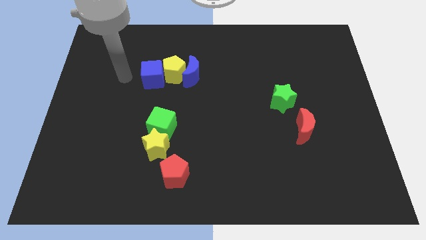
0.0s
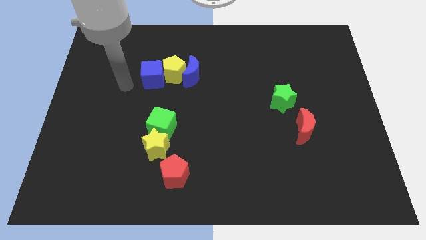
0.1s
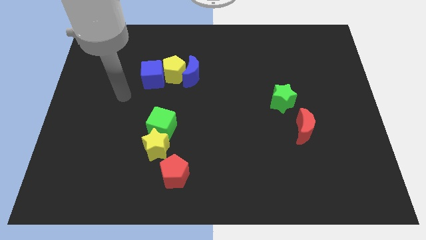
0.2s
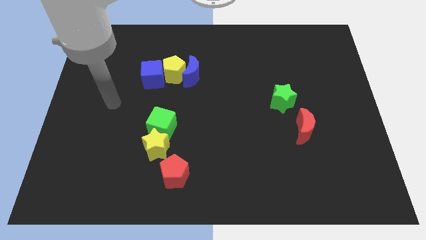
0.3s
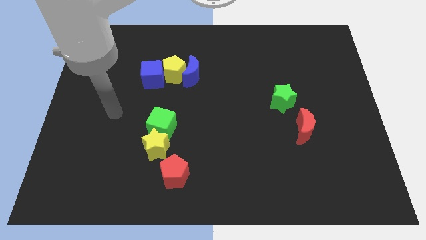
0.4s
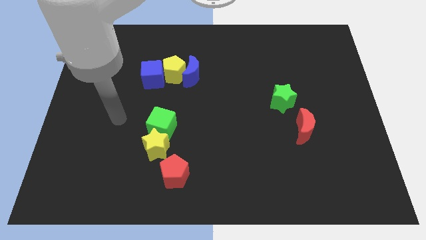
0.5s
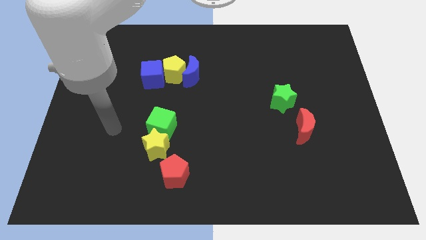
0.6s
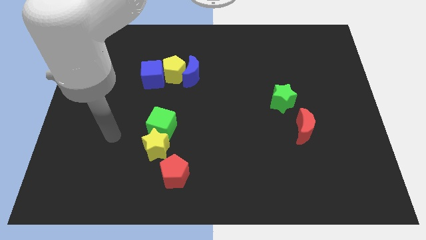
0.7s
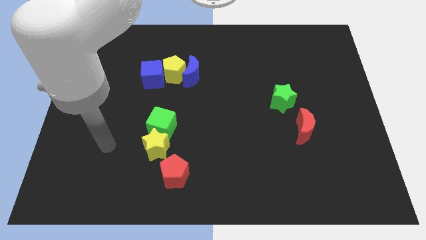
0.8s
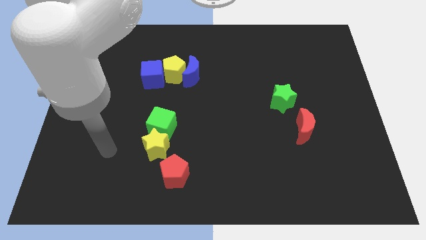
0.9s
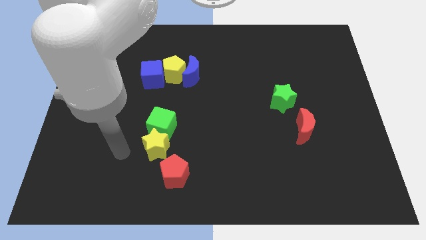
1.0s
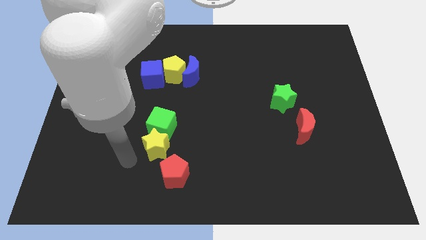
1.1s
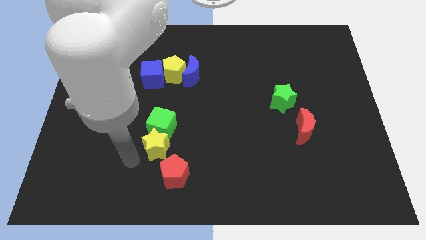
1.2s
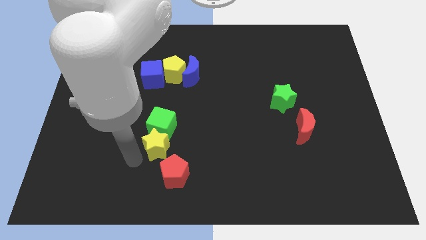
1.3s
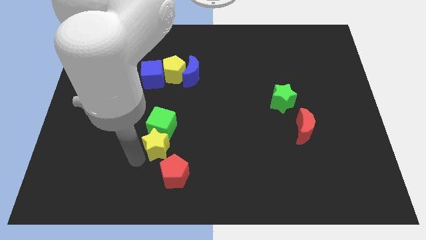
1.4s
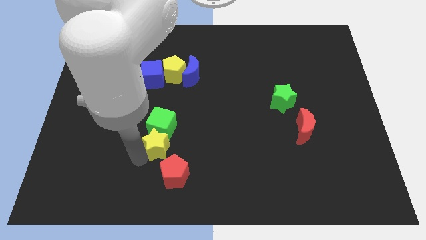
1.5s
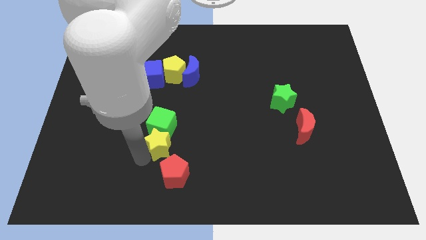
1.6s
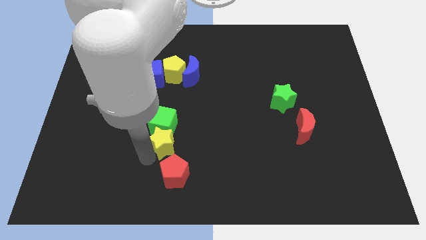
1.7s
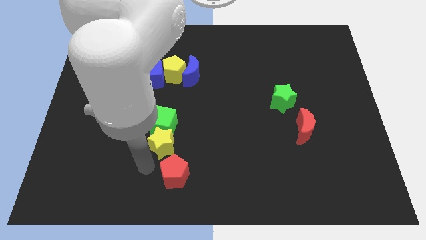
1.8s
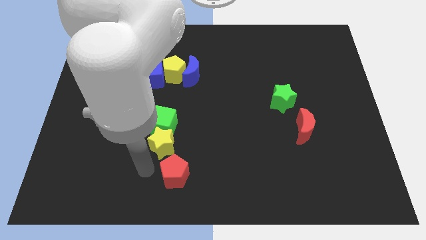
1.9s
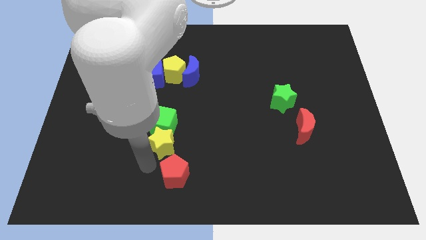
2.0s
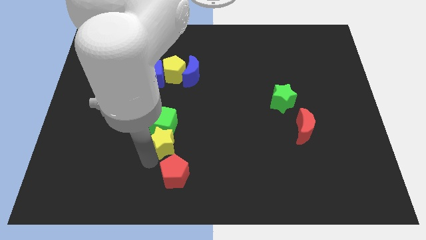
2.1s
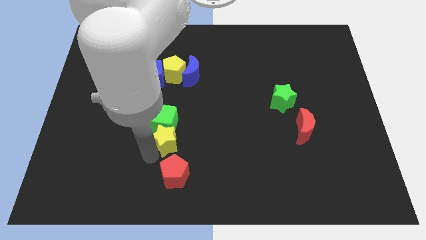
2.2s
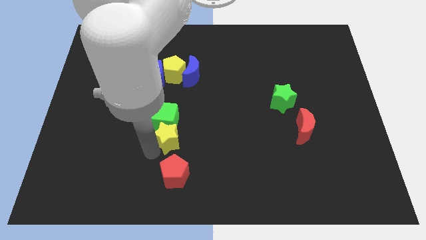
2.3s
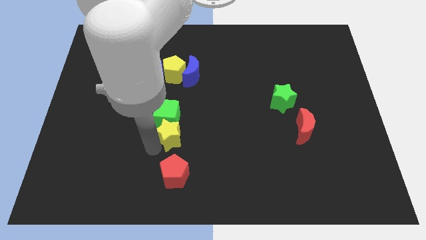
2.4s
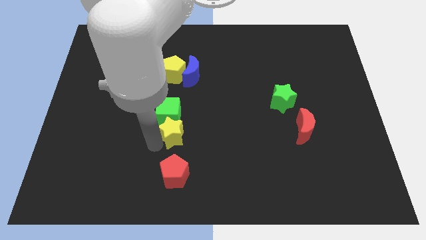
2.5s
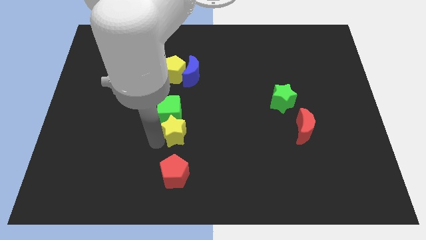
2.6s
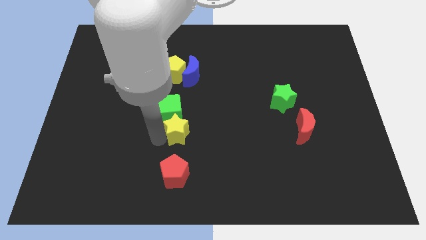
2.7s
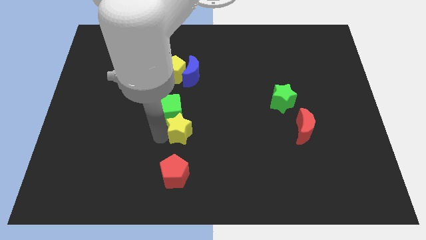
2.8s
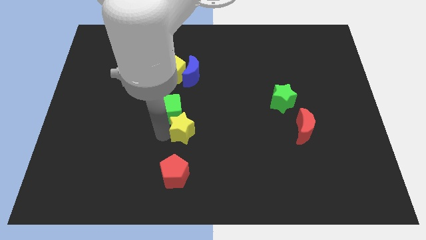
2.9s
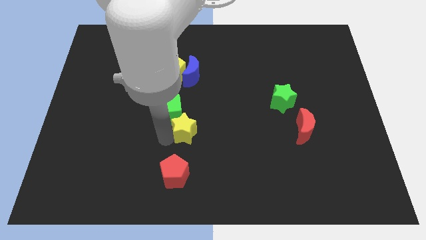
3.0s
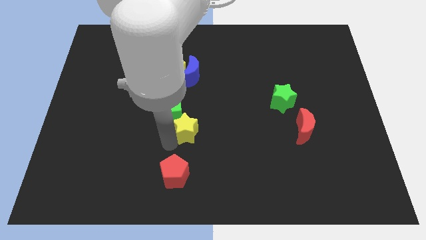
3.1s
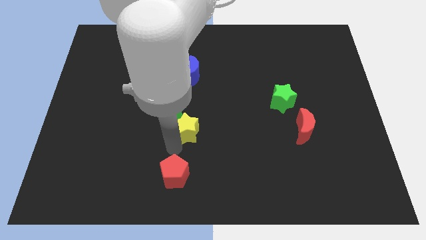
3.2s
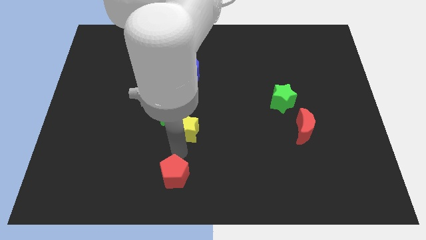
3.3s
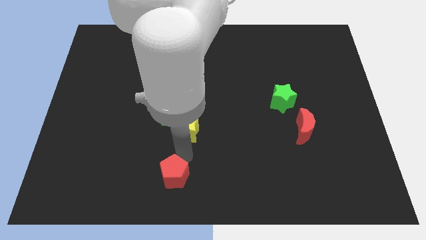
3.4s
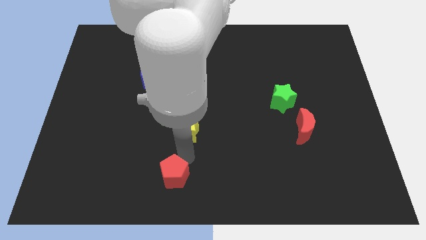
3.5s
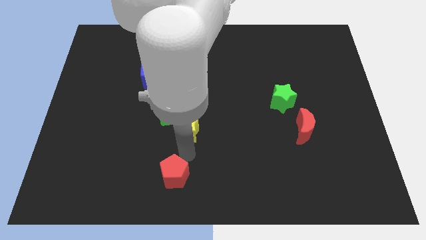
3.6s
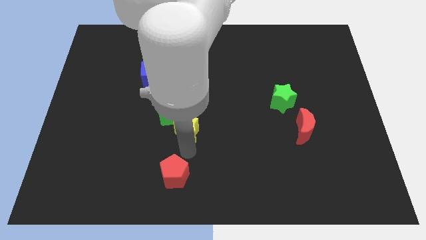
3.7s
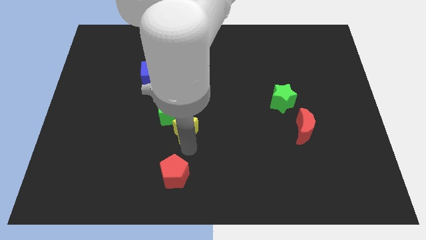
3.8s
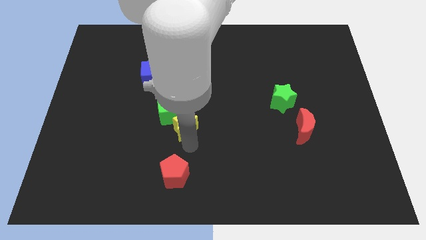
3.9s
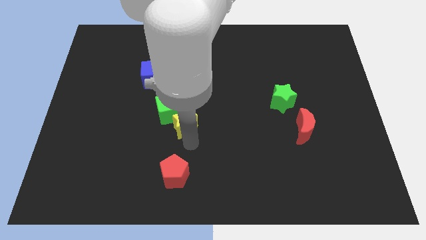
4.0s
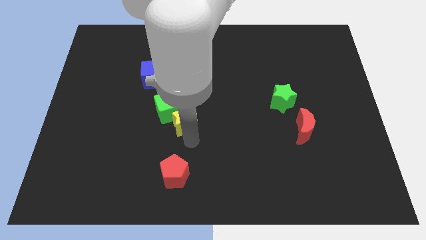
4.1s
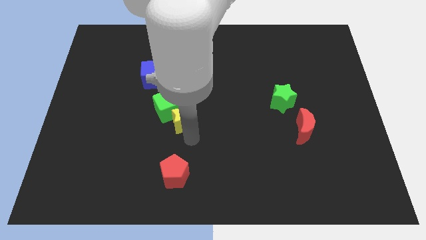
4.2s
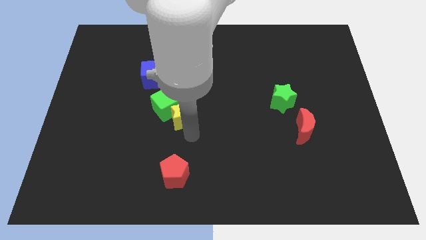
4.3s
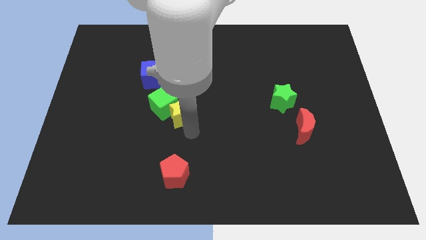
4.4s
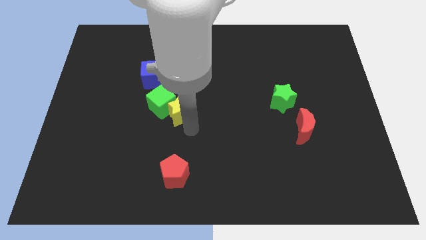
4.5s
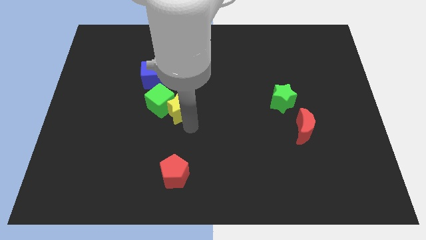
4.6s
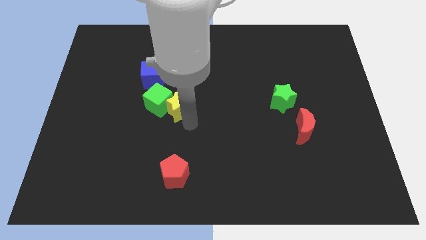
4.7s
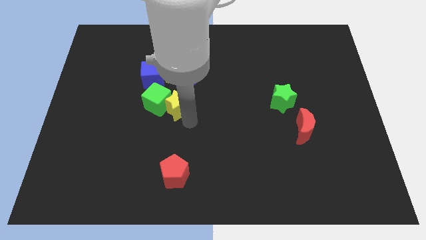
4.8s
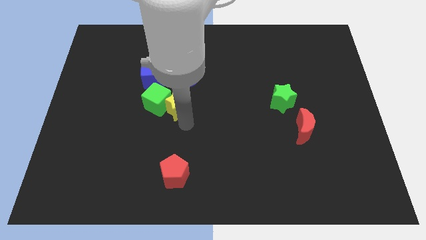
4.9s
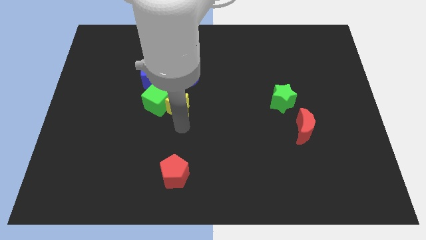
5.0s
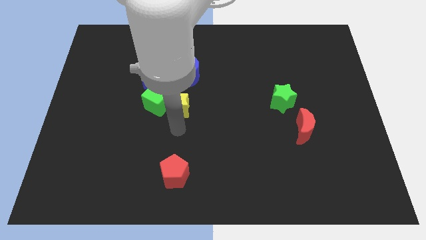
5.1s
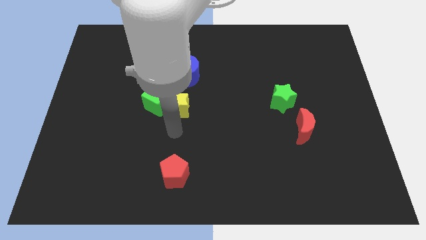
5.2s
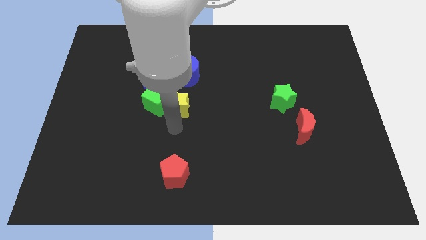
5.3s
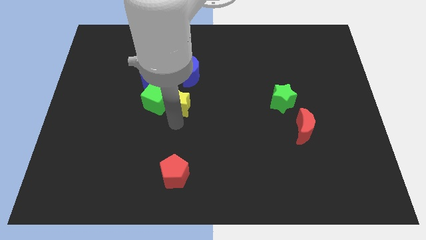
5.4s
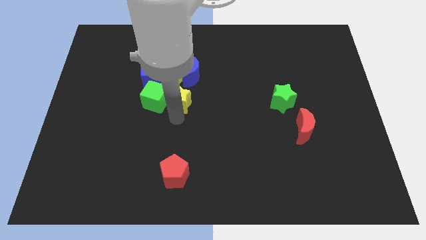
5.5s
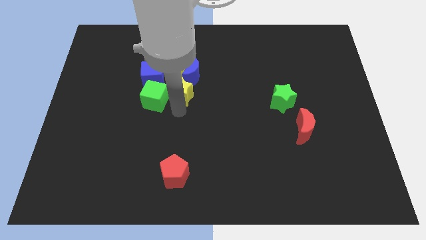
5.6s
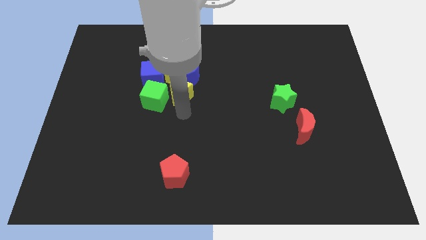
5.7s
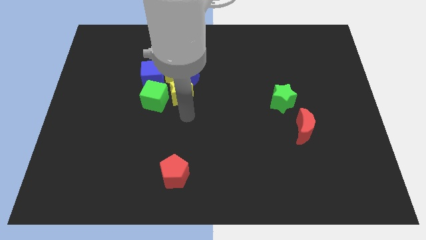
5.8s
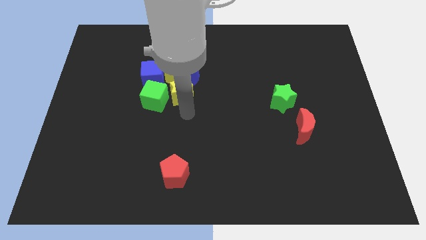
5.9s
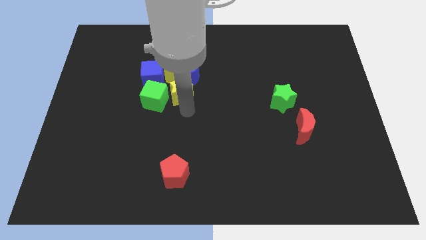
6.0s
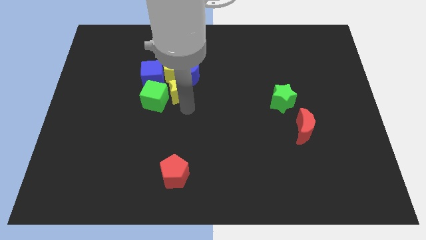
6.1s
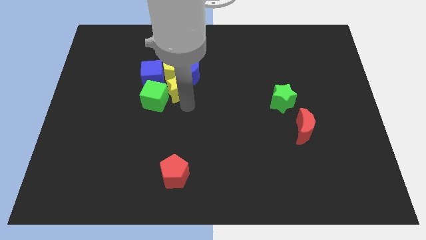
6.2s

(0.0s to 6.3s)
push the yellow star towards the yellow pentagon
